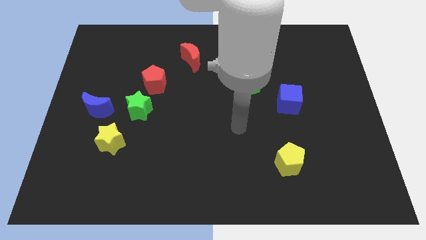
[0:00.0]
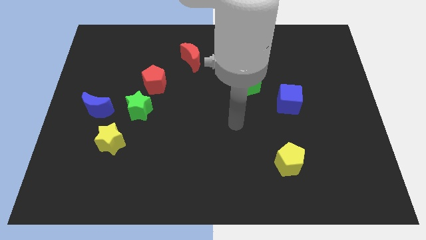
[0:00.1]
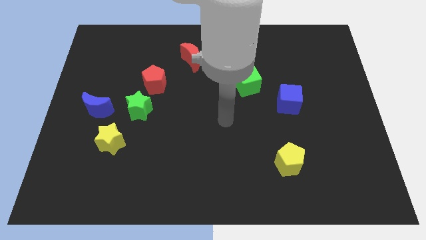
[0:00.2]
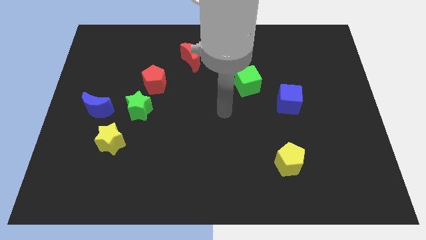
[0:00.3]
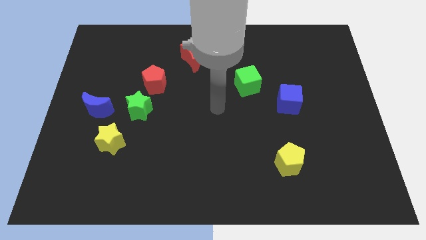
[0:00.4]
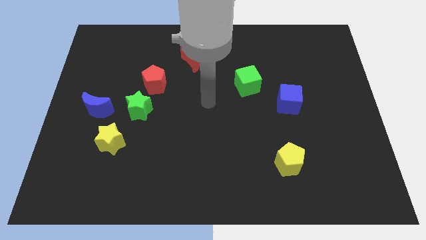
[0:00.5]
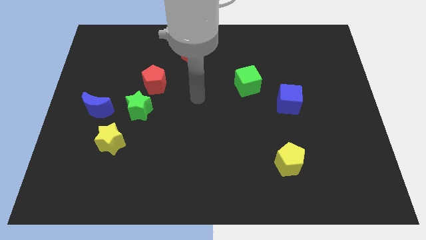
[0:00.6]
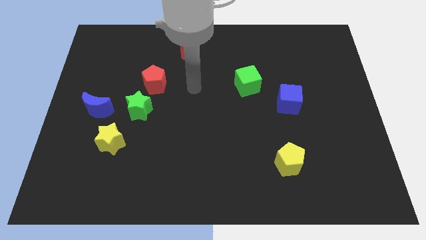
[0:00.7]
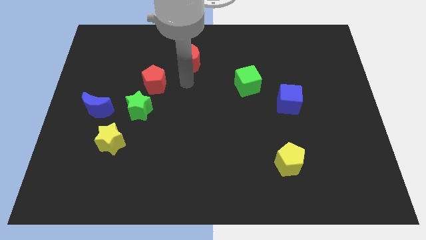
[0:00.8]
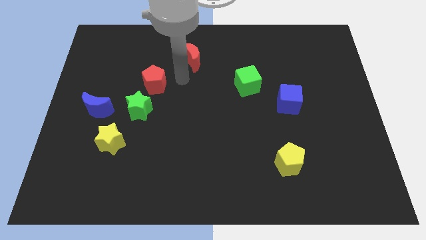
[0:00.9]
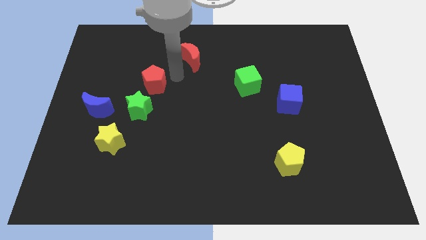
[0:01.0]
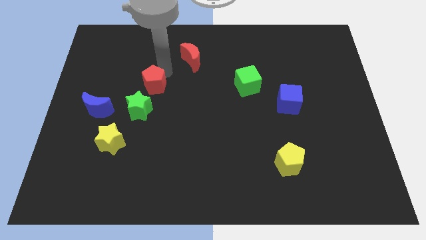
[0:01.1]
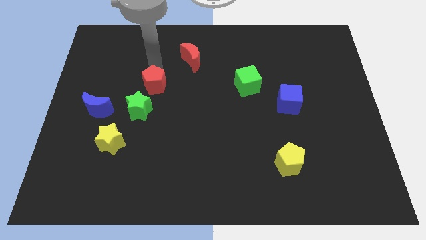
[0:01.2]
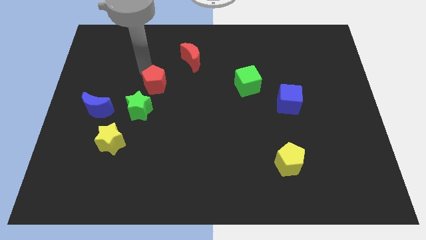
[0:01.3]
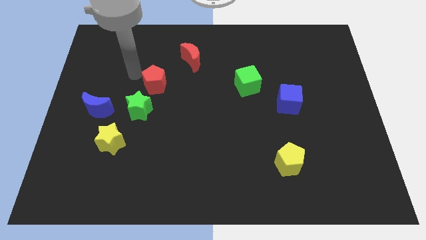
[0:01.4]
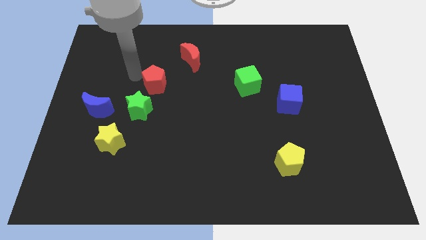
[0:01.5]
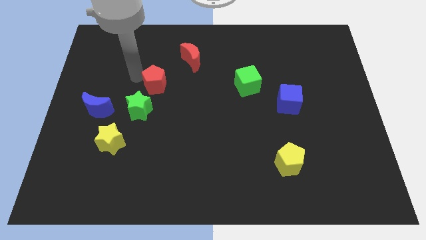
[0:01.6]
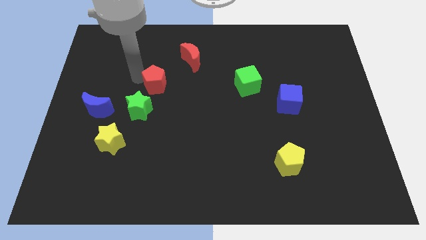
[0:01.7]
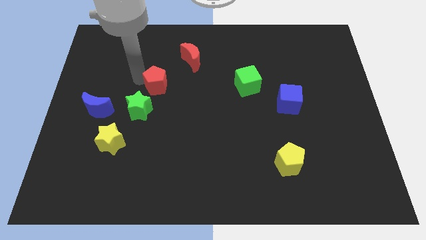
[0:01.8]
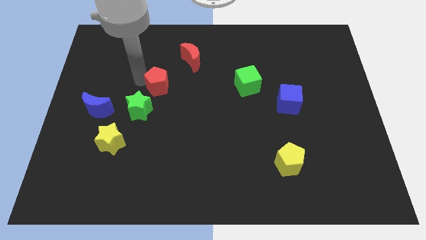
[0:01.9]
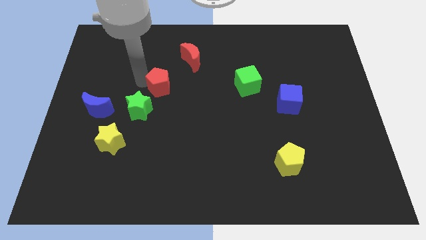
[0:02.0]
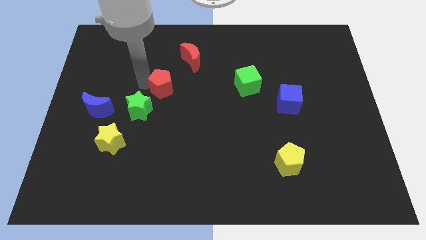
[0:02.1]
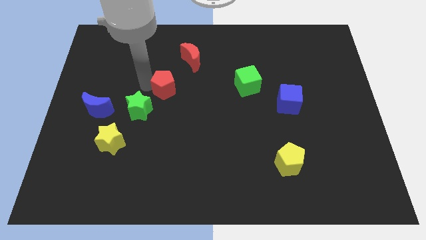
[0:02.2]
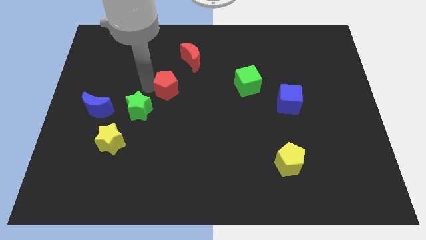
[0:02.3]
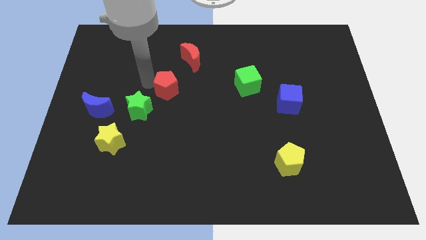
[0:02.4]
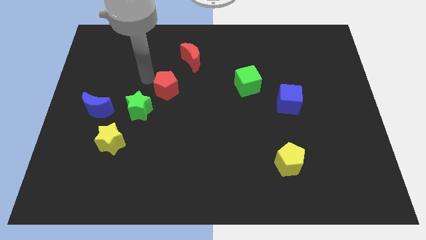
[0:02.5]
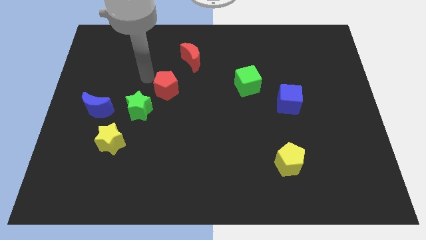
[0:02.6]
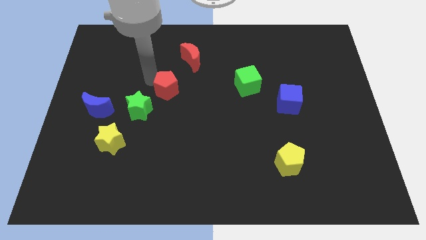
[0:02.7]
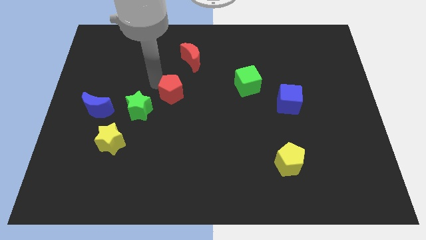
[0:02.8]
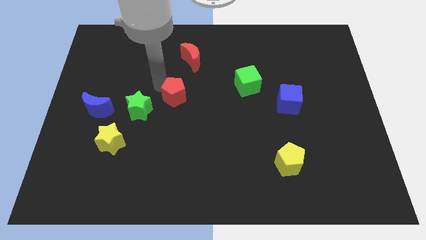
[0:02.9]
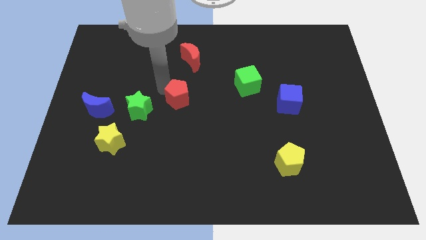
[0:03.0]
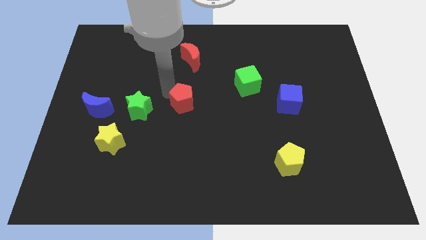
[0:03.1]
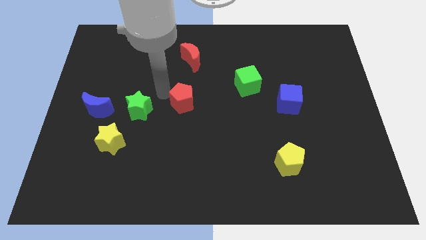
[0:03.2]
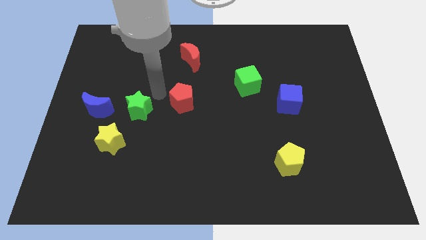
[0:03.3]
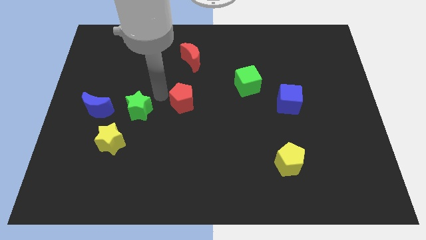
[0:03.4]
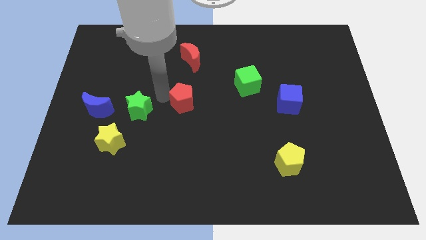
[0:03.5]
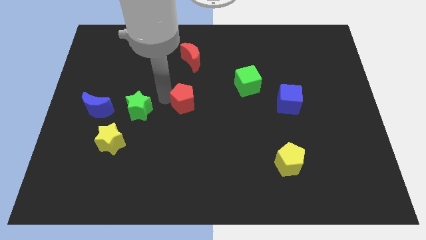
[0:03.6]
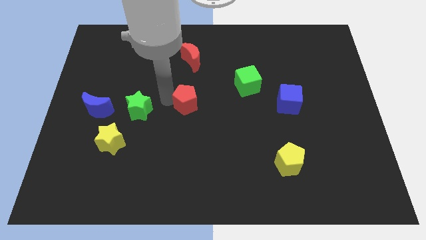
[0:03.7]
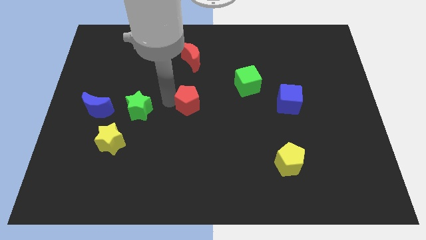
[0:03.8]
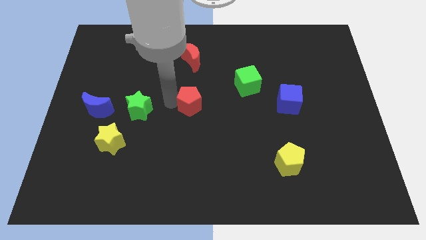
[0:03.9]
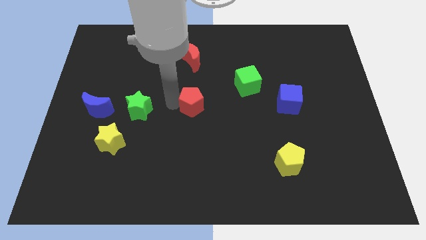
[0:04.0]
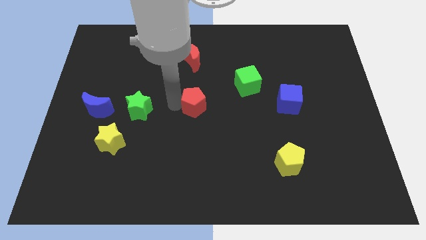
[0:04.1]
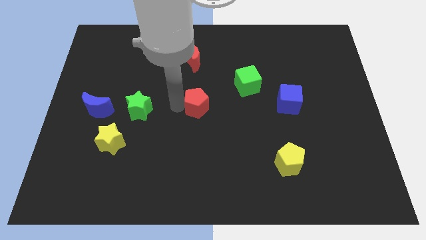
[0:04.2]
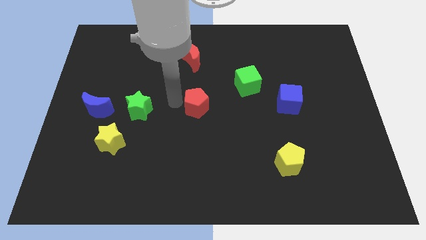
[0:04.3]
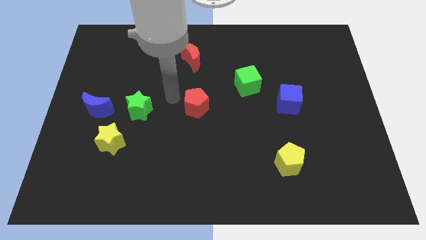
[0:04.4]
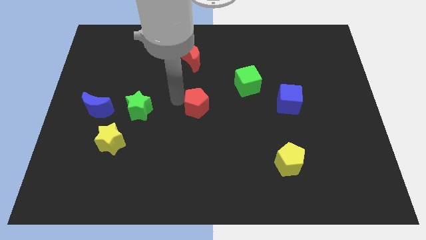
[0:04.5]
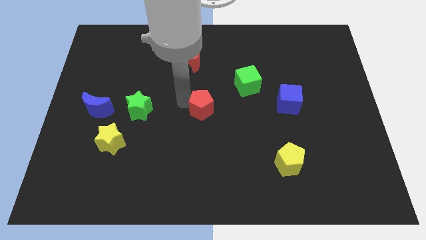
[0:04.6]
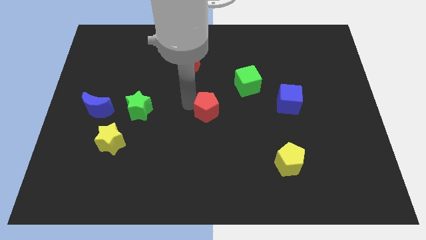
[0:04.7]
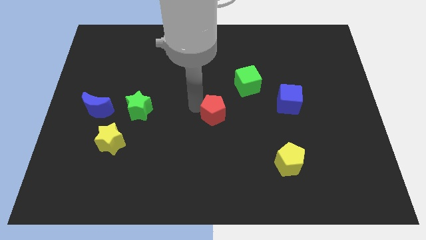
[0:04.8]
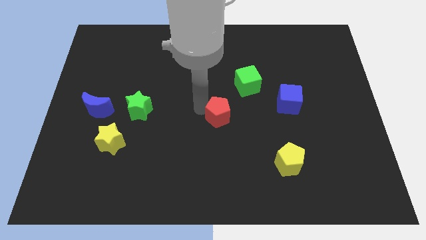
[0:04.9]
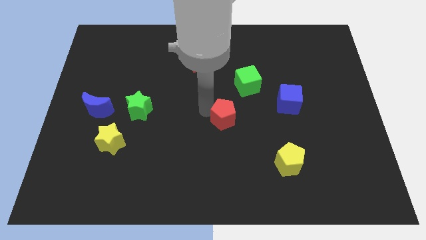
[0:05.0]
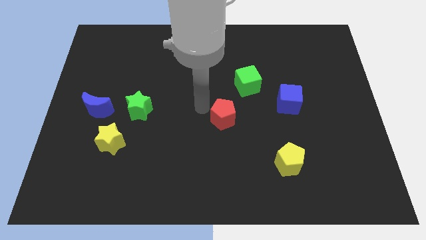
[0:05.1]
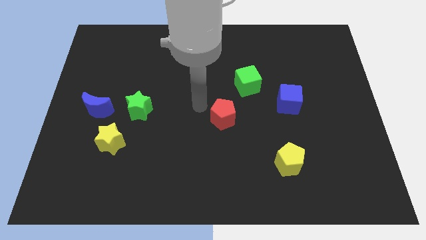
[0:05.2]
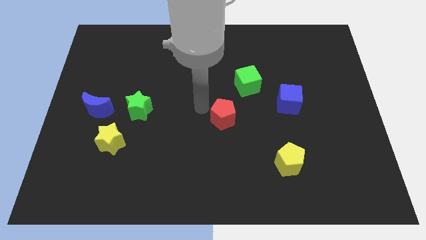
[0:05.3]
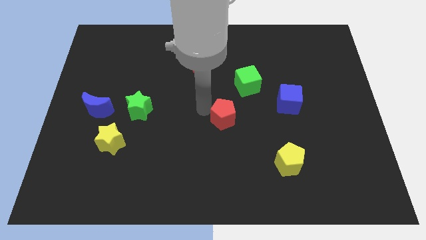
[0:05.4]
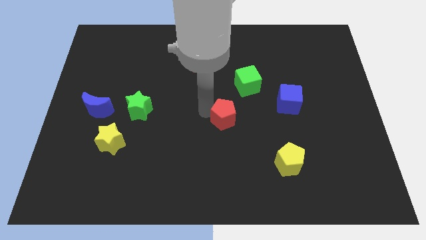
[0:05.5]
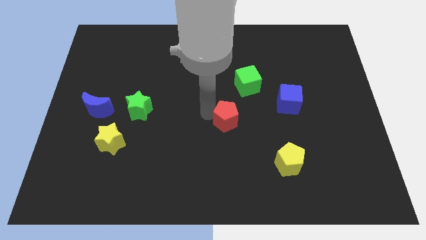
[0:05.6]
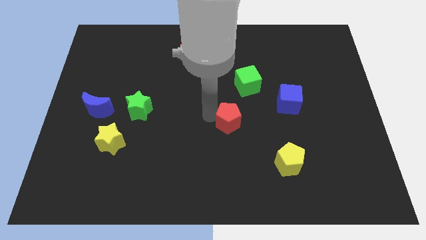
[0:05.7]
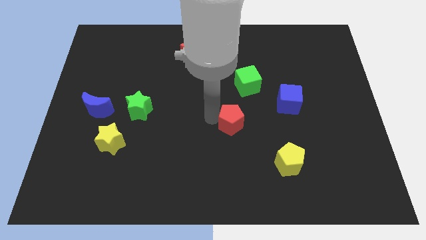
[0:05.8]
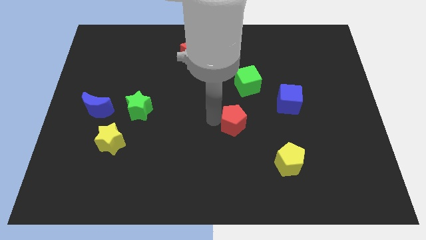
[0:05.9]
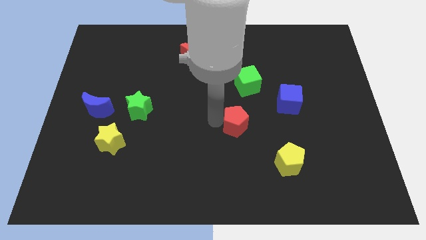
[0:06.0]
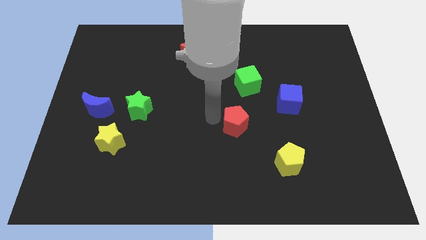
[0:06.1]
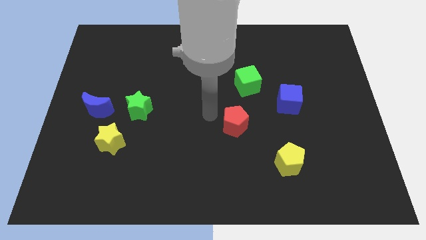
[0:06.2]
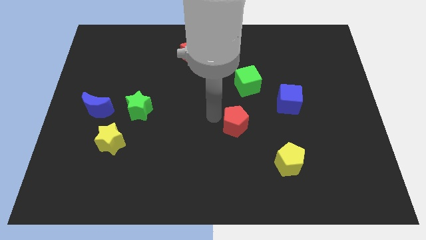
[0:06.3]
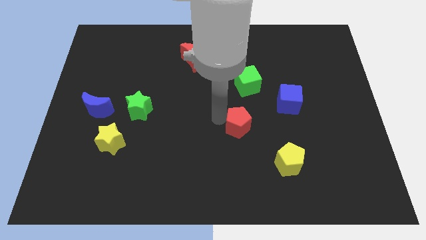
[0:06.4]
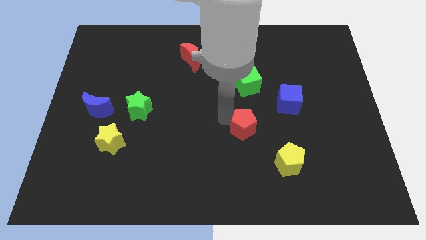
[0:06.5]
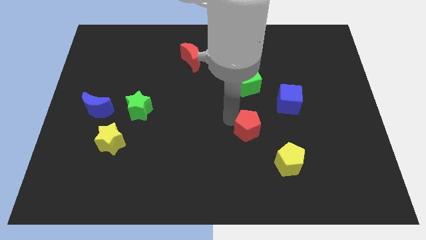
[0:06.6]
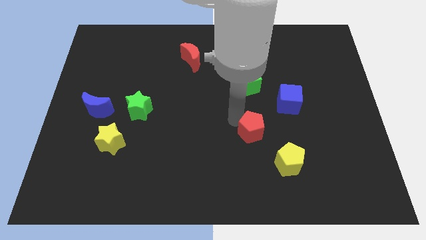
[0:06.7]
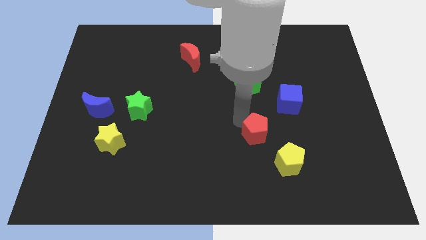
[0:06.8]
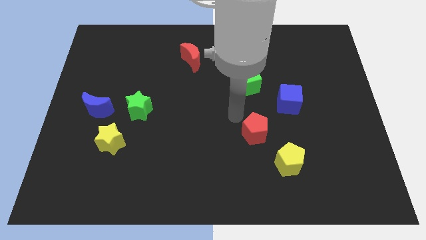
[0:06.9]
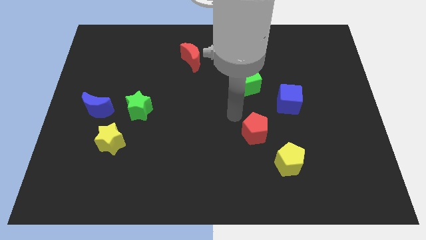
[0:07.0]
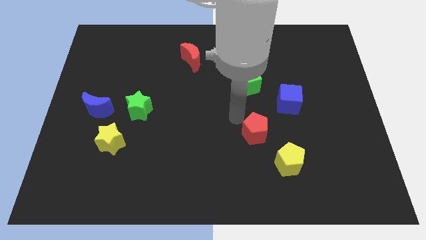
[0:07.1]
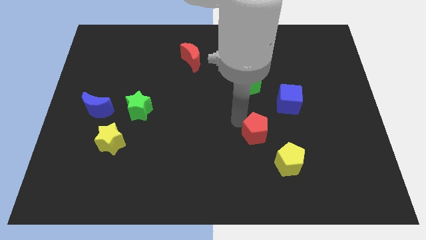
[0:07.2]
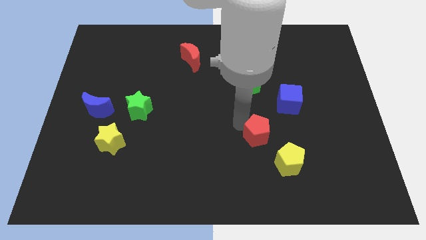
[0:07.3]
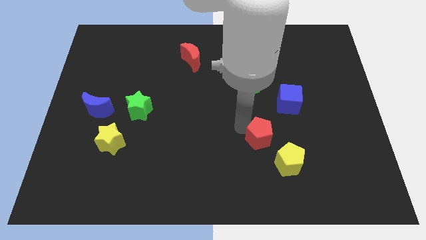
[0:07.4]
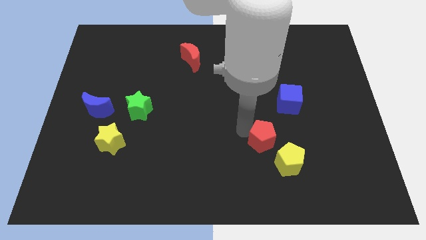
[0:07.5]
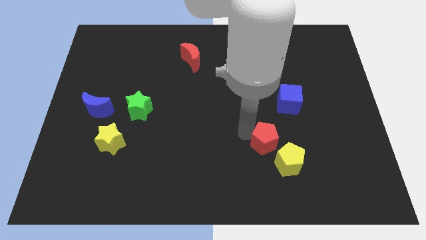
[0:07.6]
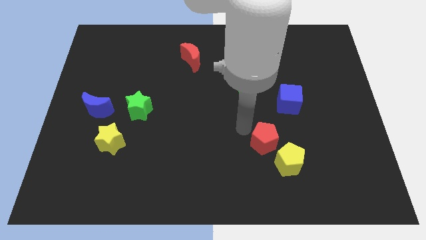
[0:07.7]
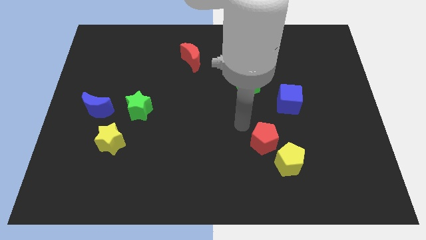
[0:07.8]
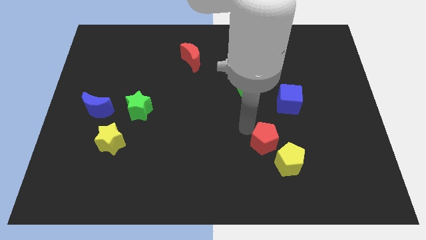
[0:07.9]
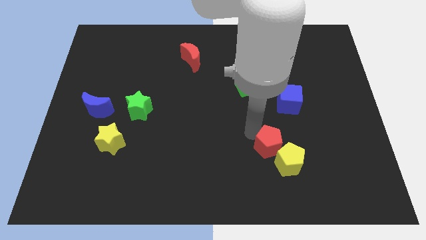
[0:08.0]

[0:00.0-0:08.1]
move the red pentagon towards the yellow pentagon
